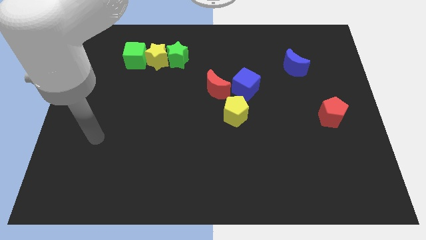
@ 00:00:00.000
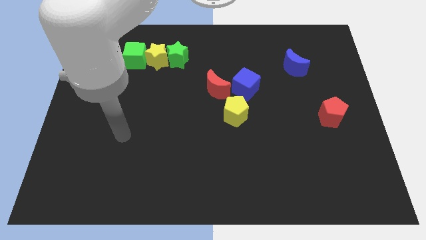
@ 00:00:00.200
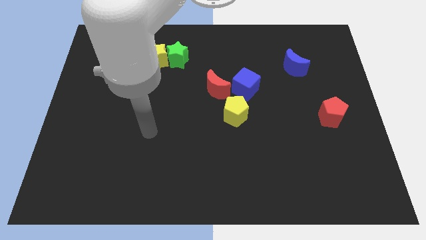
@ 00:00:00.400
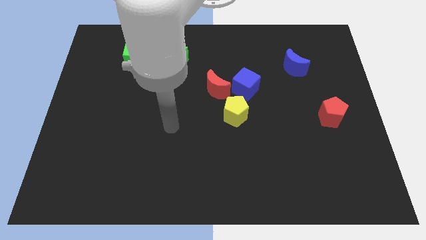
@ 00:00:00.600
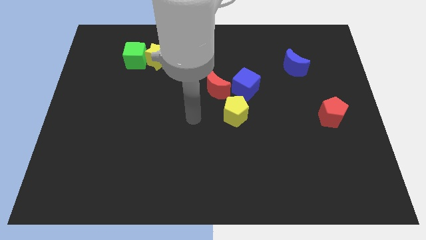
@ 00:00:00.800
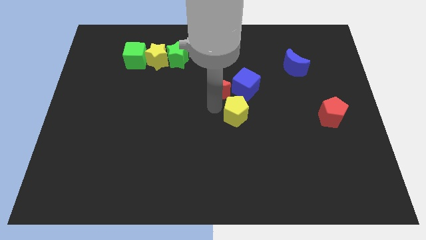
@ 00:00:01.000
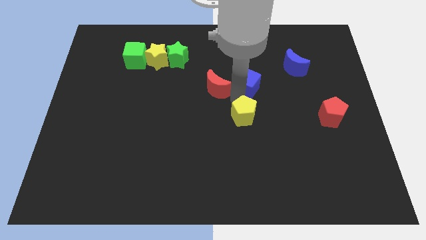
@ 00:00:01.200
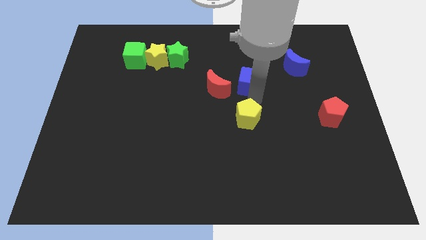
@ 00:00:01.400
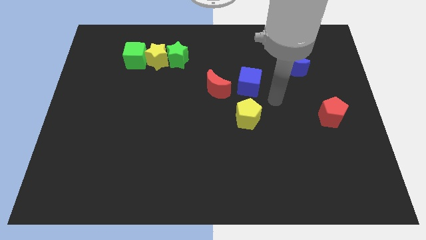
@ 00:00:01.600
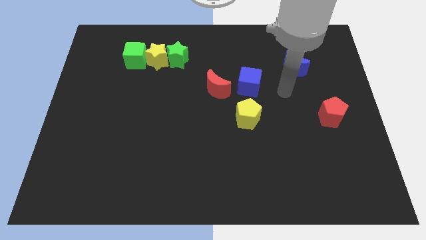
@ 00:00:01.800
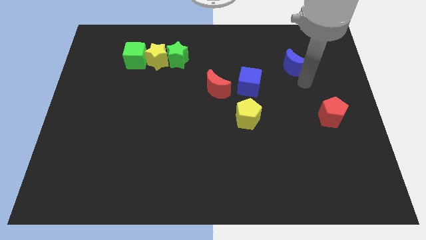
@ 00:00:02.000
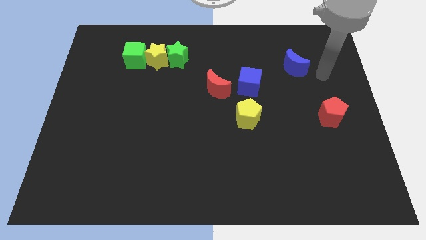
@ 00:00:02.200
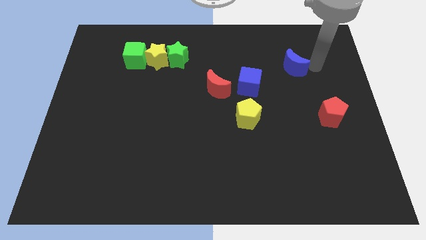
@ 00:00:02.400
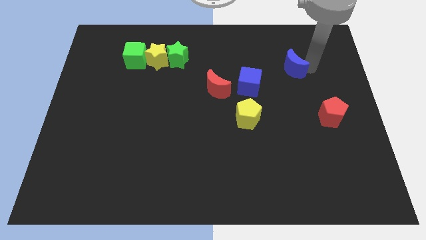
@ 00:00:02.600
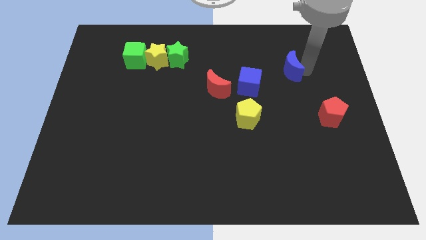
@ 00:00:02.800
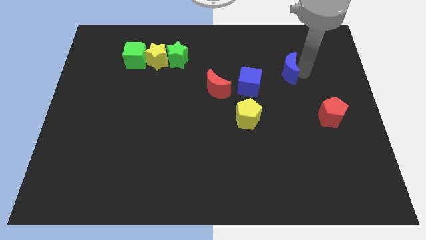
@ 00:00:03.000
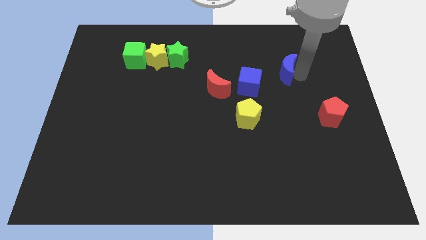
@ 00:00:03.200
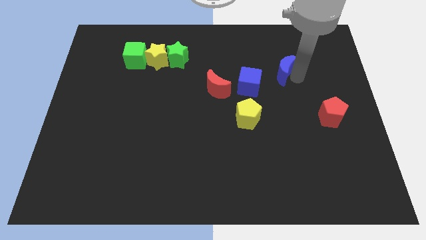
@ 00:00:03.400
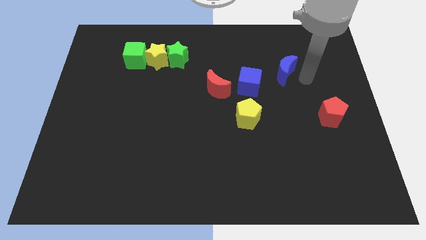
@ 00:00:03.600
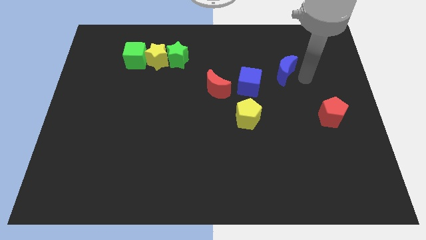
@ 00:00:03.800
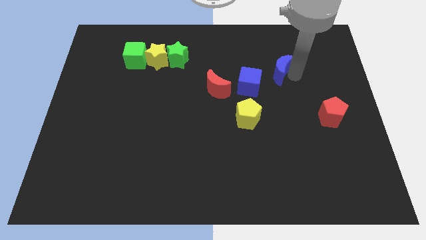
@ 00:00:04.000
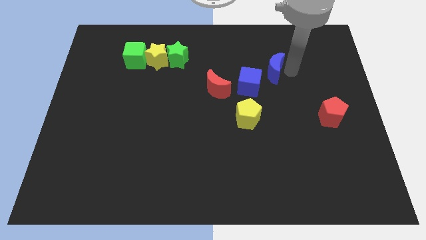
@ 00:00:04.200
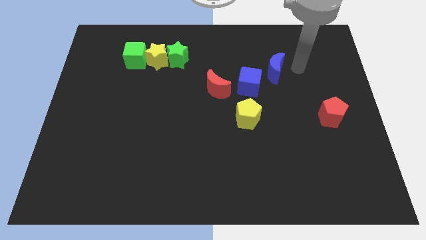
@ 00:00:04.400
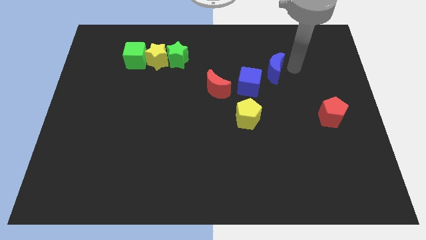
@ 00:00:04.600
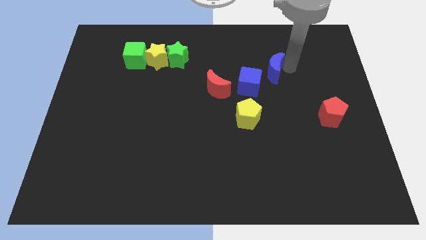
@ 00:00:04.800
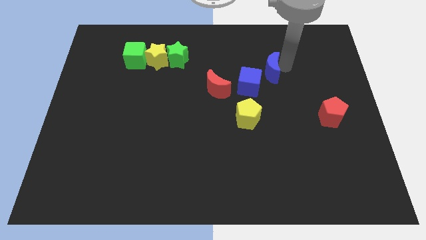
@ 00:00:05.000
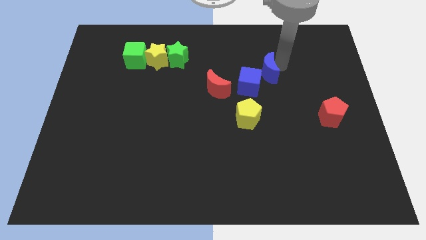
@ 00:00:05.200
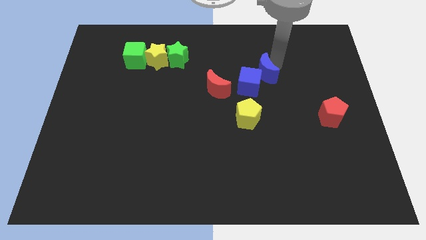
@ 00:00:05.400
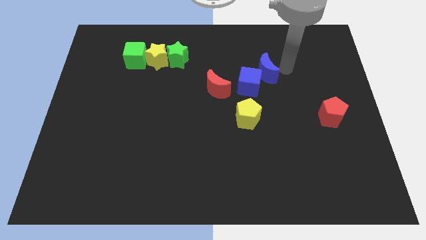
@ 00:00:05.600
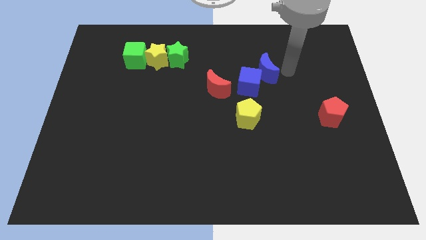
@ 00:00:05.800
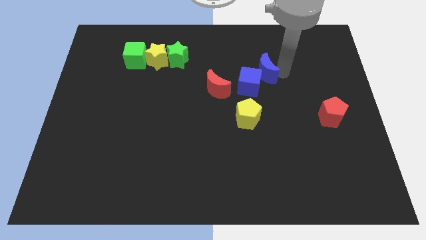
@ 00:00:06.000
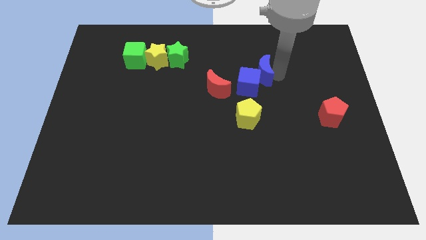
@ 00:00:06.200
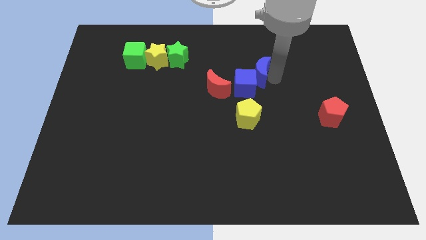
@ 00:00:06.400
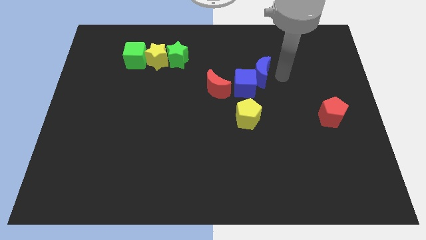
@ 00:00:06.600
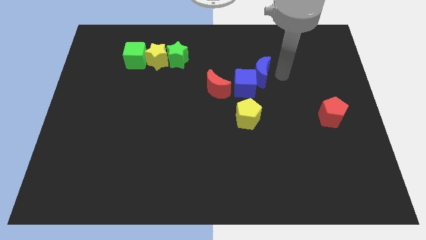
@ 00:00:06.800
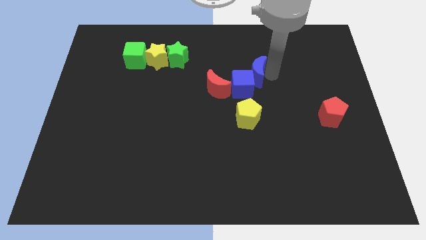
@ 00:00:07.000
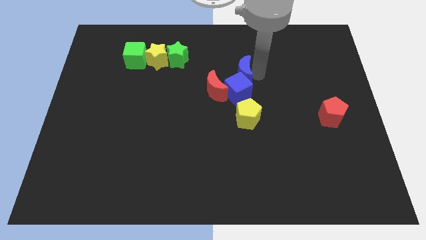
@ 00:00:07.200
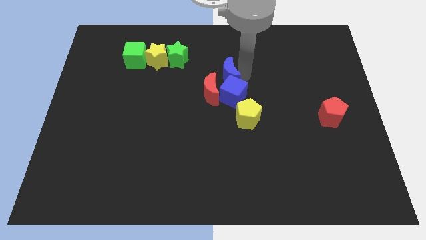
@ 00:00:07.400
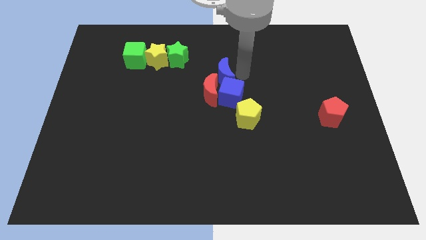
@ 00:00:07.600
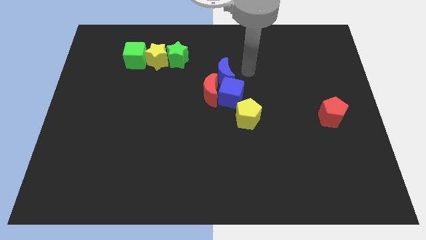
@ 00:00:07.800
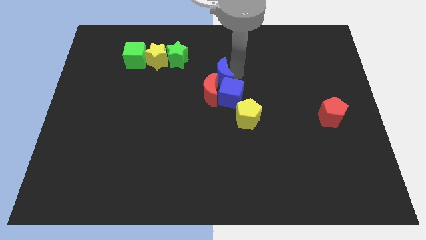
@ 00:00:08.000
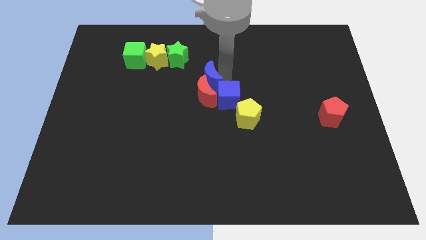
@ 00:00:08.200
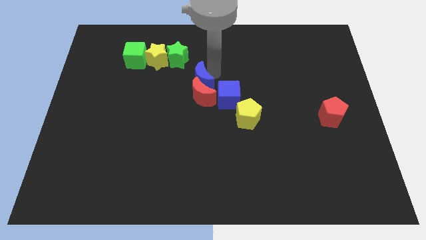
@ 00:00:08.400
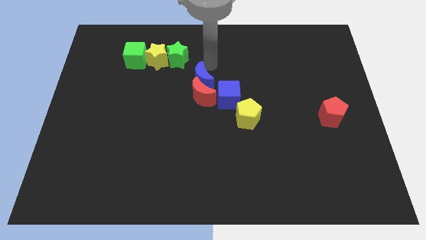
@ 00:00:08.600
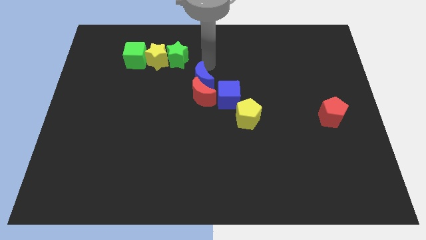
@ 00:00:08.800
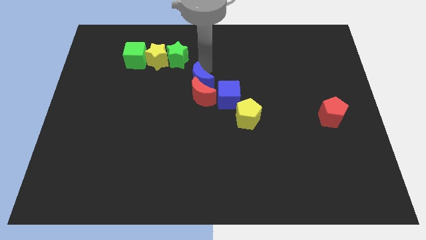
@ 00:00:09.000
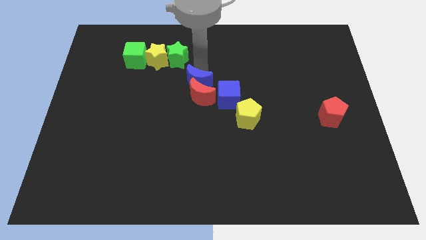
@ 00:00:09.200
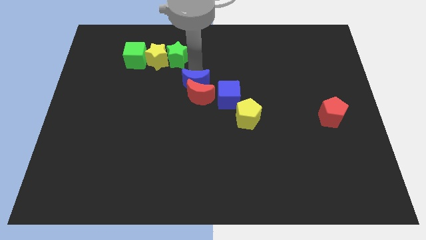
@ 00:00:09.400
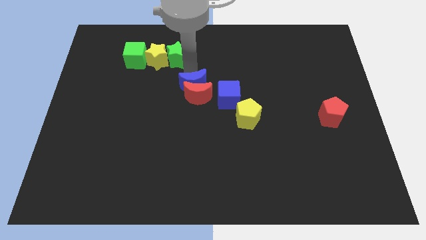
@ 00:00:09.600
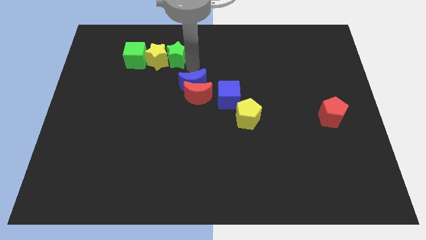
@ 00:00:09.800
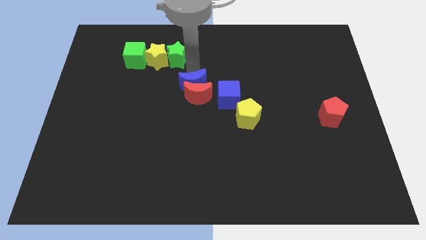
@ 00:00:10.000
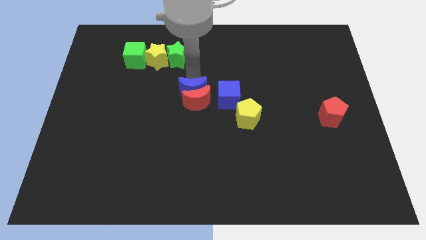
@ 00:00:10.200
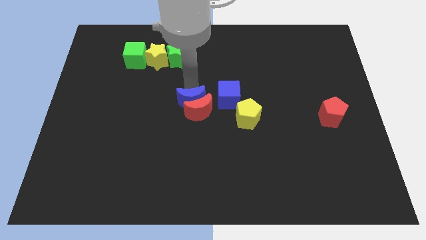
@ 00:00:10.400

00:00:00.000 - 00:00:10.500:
push the blue moon to the left side of the yellow pentagon

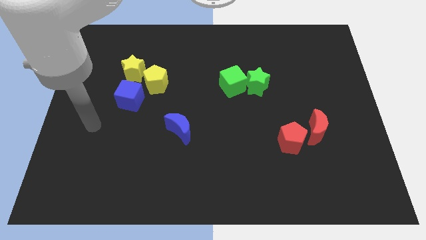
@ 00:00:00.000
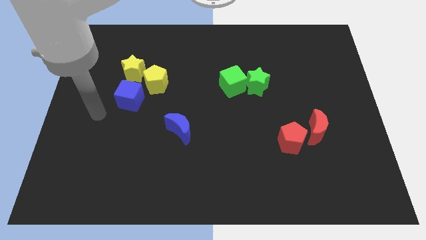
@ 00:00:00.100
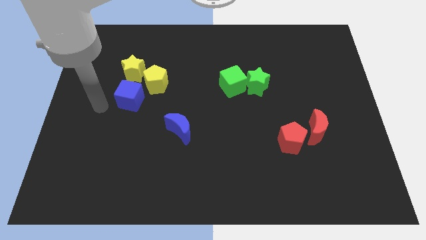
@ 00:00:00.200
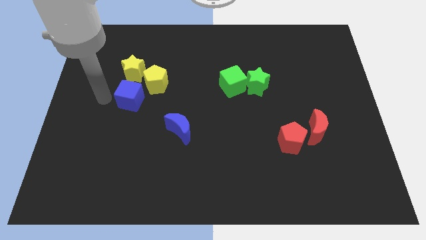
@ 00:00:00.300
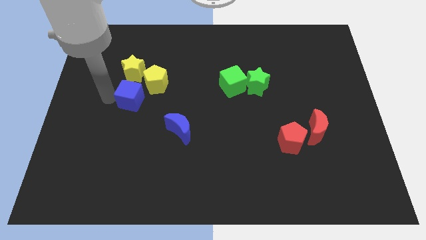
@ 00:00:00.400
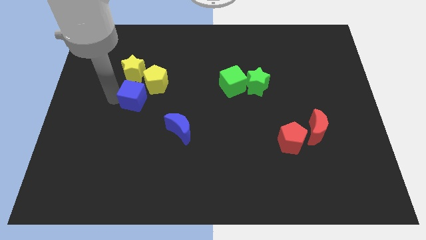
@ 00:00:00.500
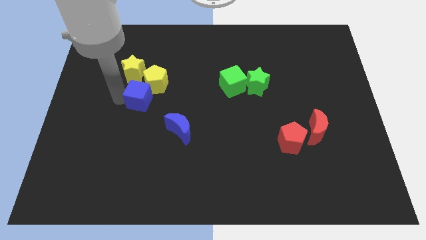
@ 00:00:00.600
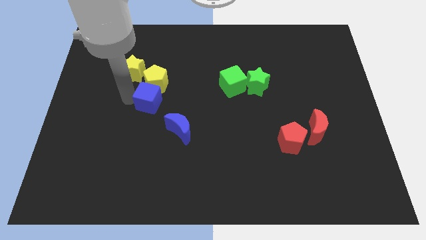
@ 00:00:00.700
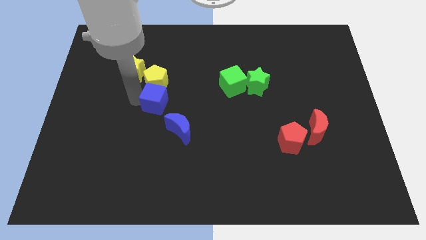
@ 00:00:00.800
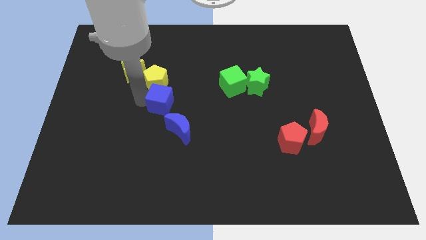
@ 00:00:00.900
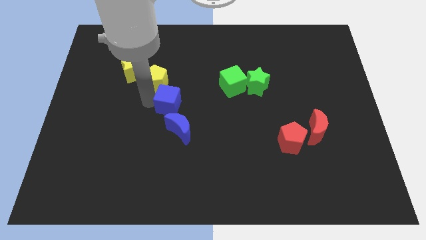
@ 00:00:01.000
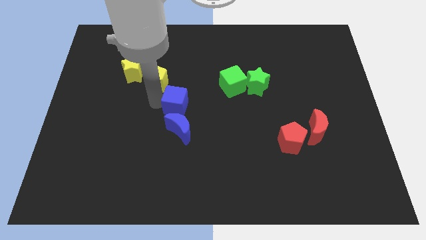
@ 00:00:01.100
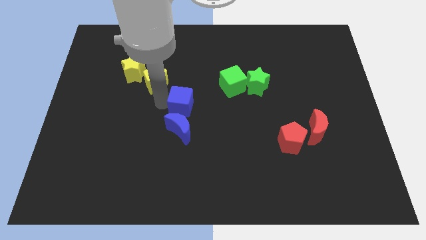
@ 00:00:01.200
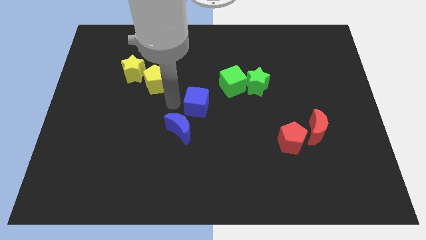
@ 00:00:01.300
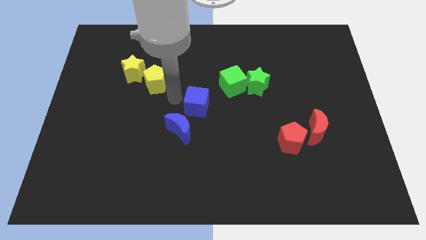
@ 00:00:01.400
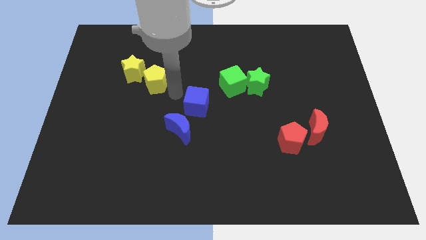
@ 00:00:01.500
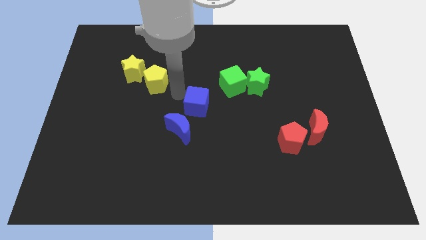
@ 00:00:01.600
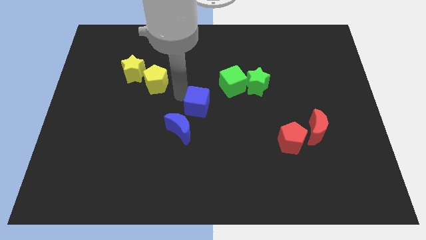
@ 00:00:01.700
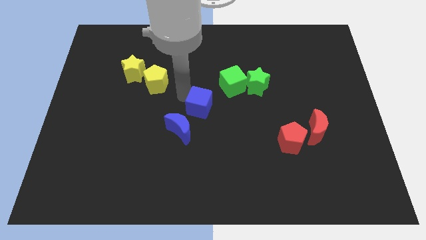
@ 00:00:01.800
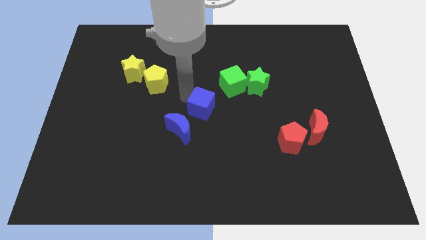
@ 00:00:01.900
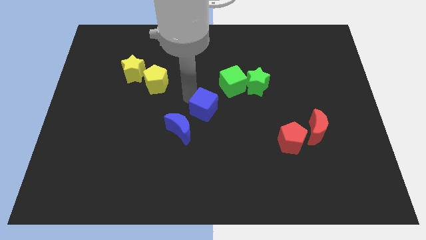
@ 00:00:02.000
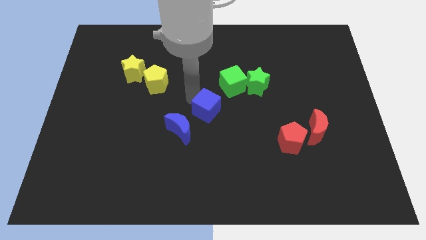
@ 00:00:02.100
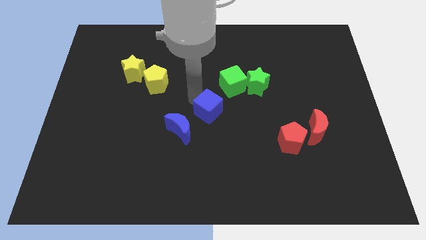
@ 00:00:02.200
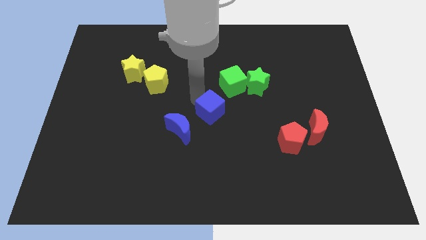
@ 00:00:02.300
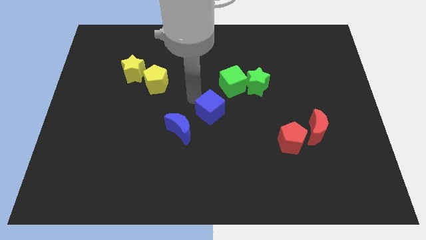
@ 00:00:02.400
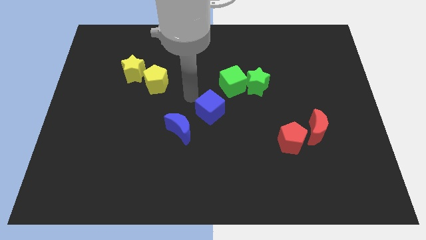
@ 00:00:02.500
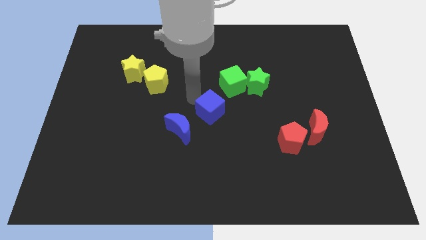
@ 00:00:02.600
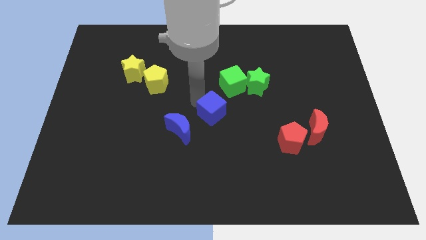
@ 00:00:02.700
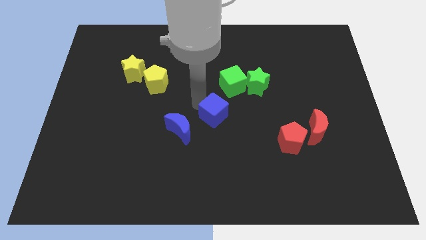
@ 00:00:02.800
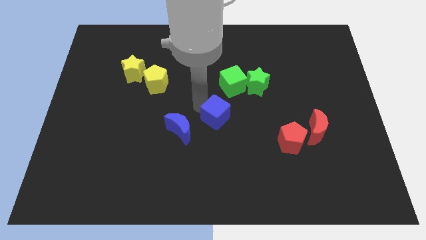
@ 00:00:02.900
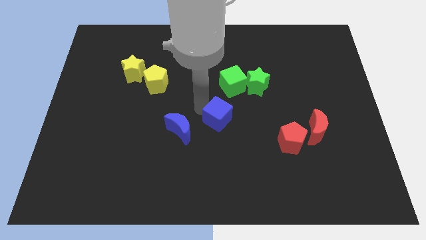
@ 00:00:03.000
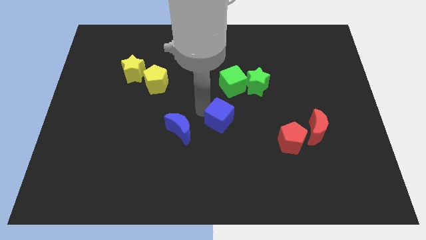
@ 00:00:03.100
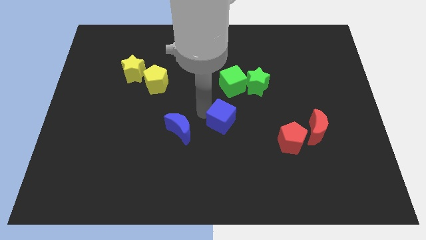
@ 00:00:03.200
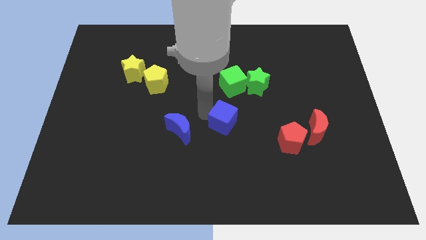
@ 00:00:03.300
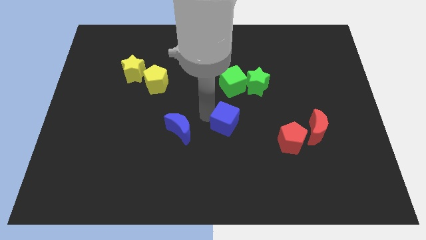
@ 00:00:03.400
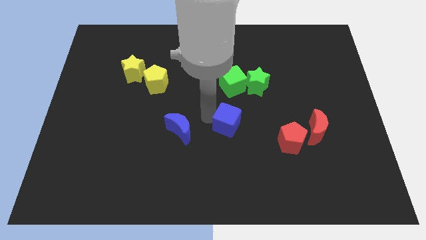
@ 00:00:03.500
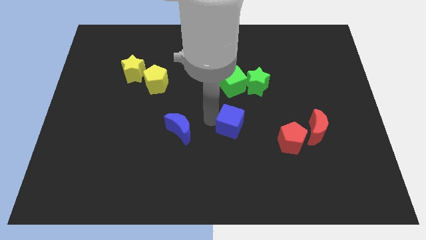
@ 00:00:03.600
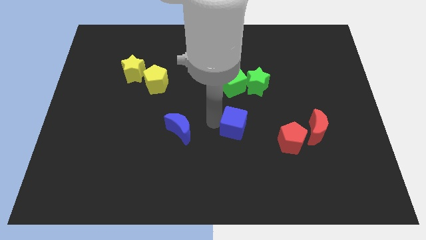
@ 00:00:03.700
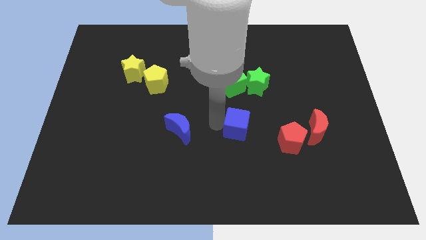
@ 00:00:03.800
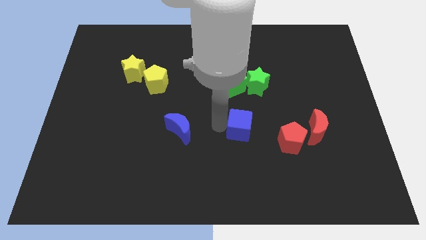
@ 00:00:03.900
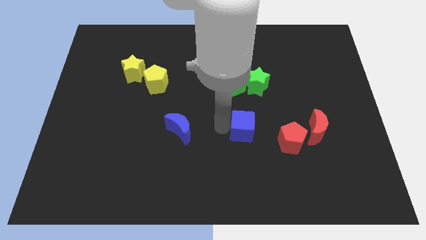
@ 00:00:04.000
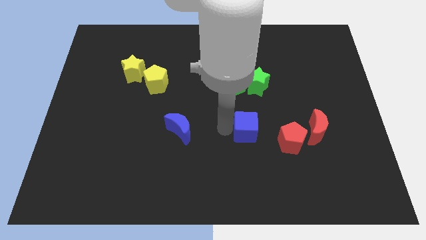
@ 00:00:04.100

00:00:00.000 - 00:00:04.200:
push the blue cube to the top left side of the red pentagon
